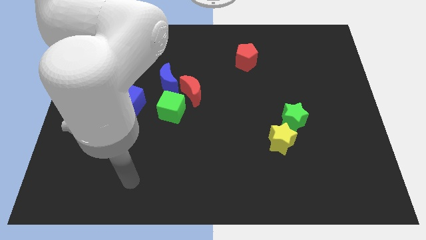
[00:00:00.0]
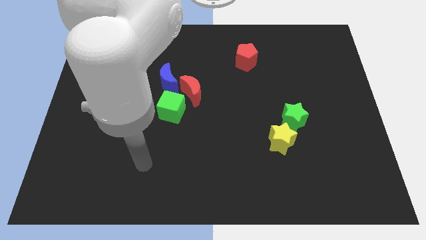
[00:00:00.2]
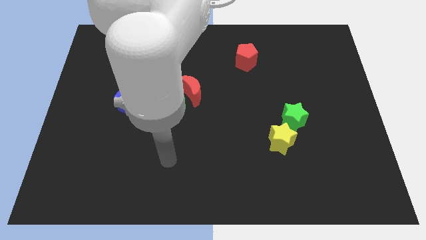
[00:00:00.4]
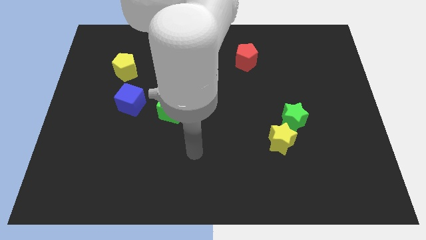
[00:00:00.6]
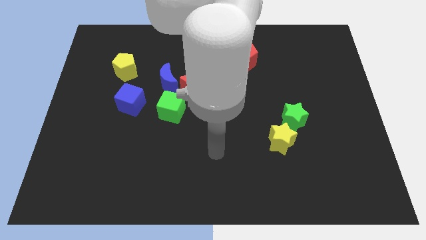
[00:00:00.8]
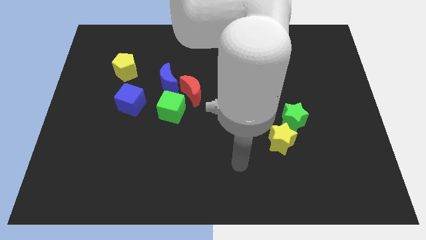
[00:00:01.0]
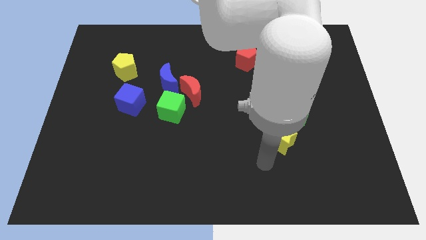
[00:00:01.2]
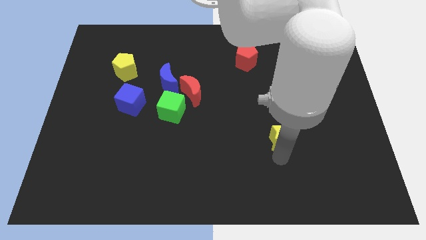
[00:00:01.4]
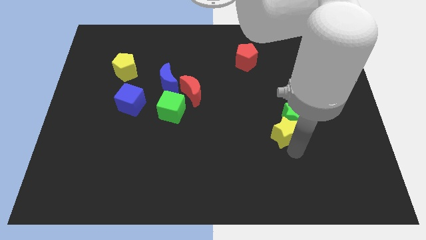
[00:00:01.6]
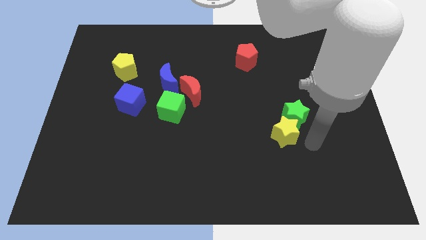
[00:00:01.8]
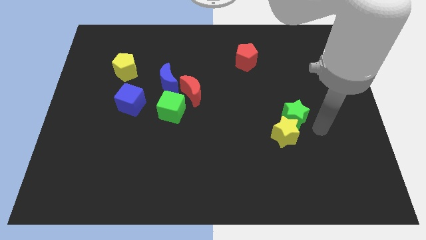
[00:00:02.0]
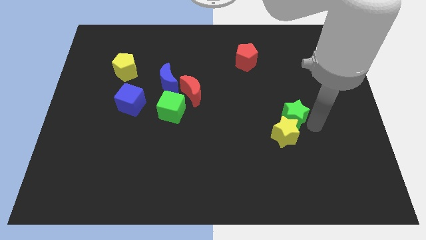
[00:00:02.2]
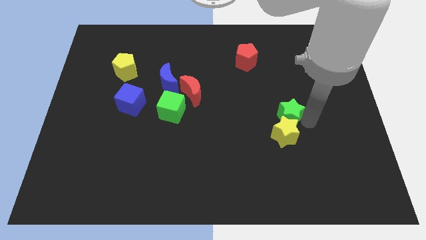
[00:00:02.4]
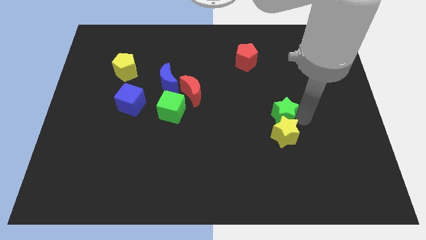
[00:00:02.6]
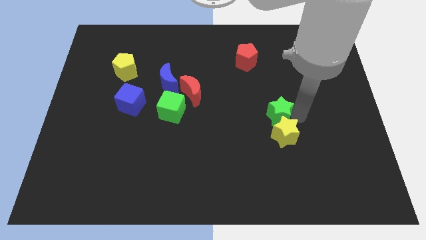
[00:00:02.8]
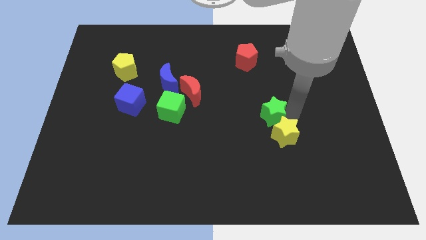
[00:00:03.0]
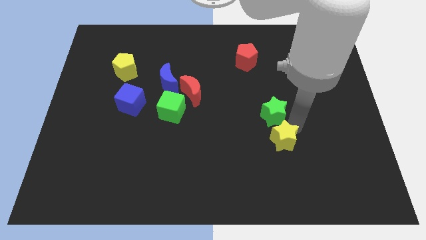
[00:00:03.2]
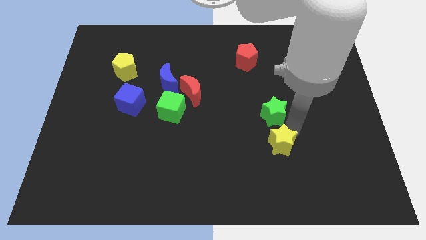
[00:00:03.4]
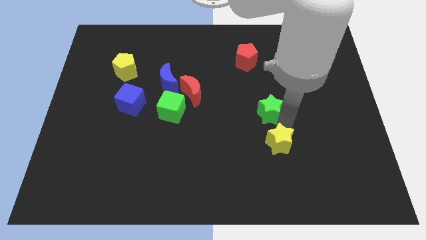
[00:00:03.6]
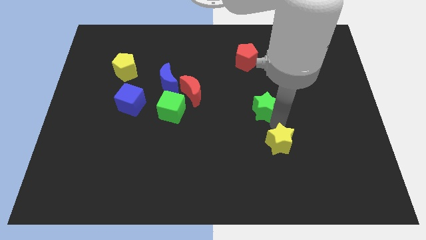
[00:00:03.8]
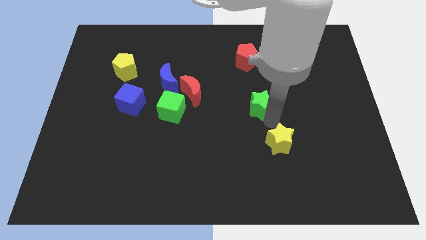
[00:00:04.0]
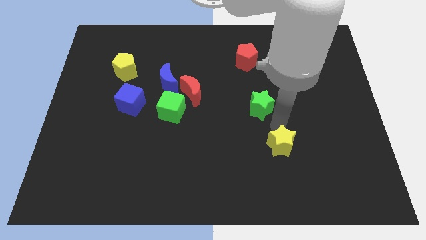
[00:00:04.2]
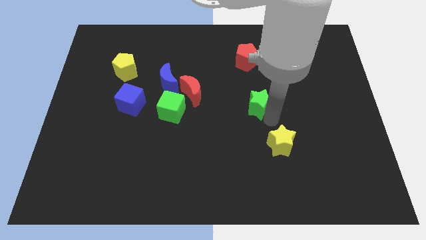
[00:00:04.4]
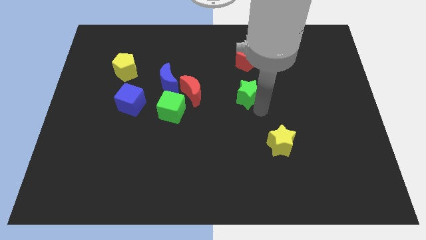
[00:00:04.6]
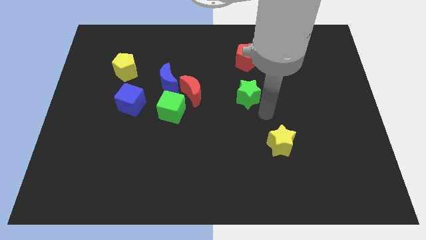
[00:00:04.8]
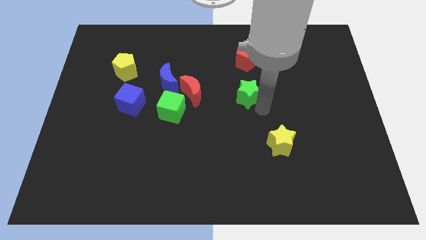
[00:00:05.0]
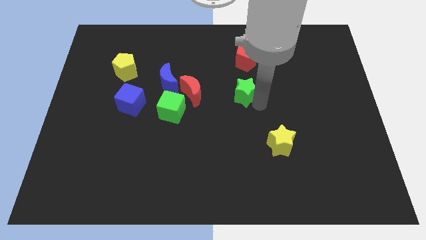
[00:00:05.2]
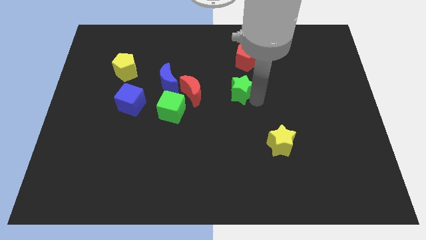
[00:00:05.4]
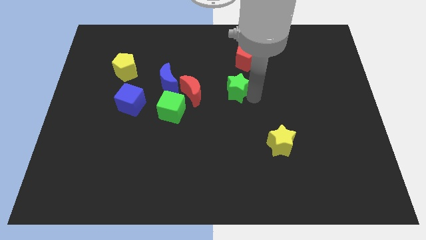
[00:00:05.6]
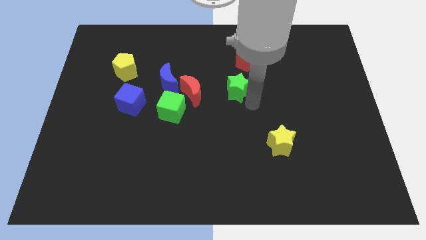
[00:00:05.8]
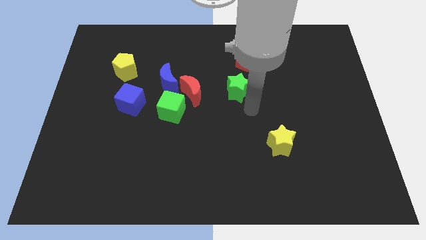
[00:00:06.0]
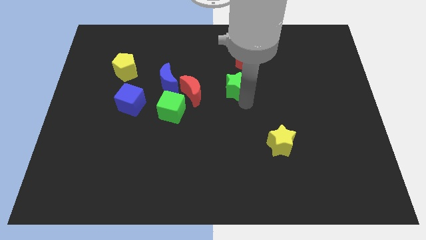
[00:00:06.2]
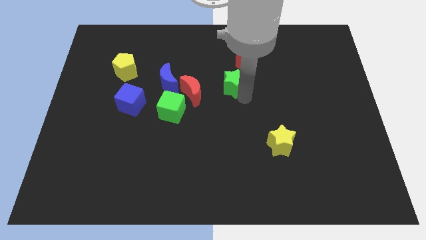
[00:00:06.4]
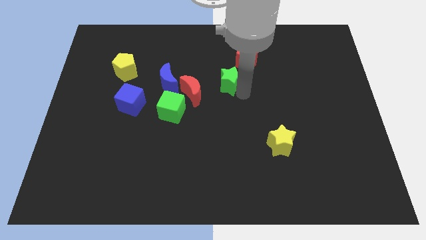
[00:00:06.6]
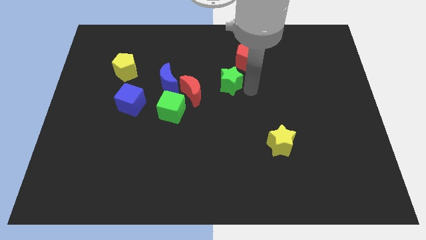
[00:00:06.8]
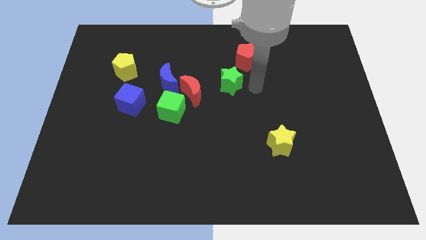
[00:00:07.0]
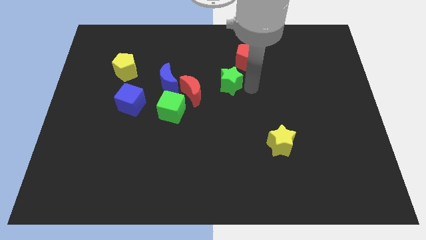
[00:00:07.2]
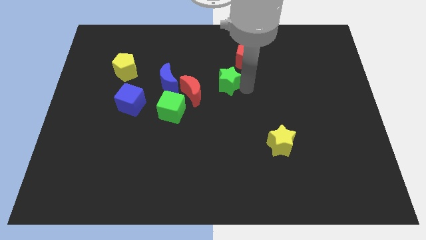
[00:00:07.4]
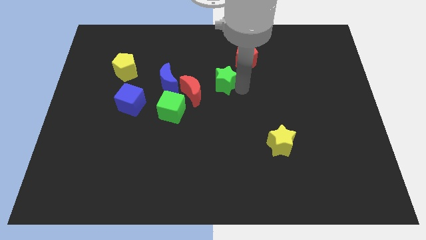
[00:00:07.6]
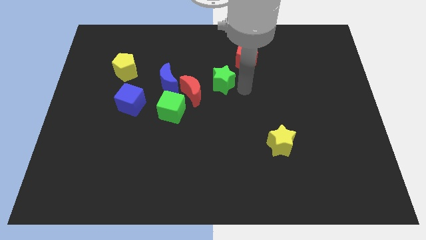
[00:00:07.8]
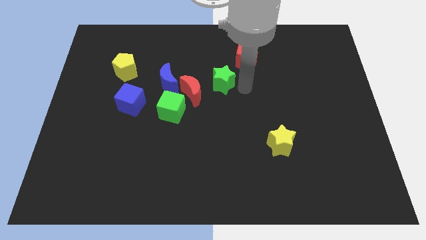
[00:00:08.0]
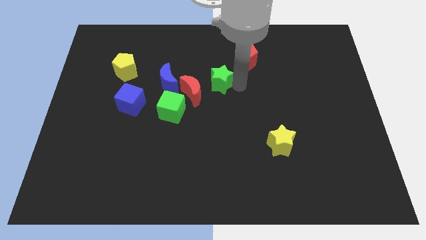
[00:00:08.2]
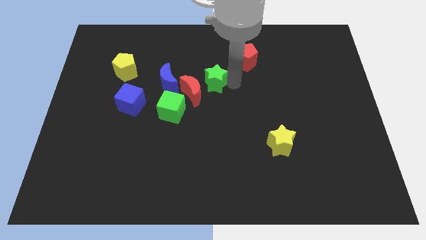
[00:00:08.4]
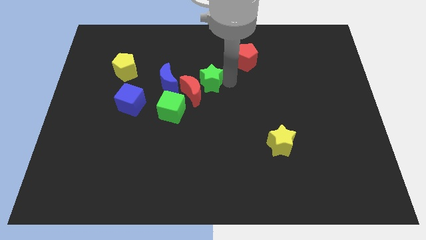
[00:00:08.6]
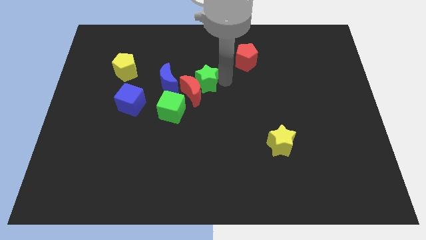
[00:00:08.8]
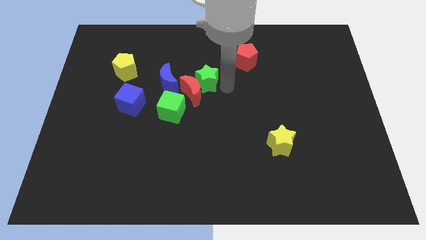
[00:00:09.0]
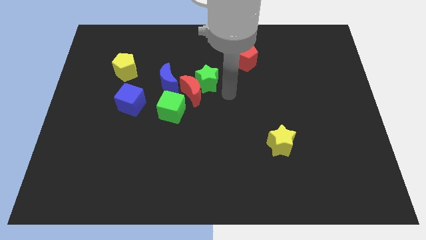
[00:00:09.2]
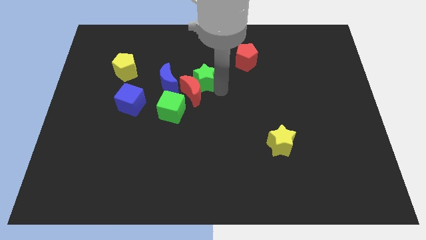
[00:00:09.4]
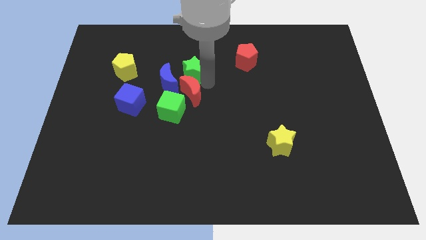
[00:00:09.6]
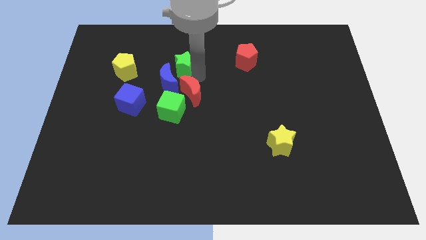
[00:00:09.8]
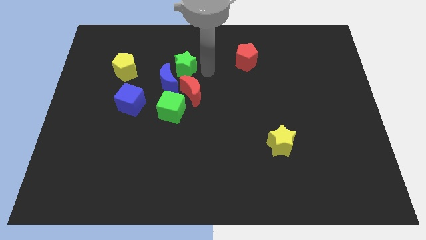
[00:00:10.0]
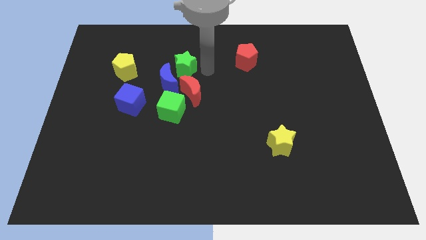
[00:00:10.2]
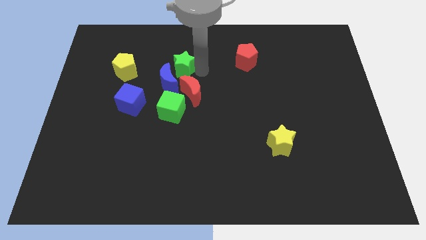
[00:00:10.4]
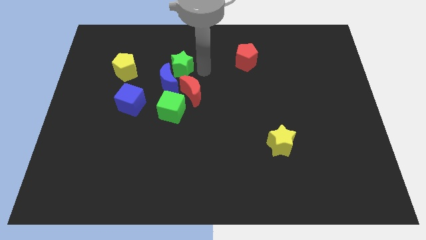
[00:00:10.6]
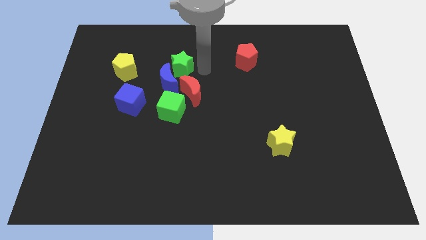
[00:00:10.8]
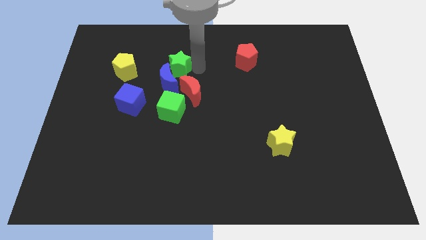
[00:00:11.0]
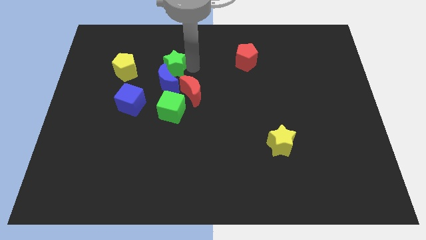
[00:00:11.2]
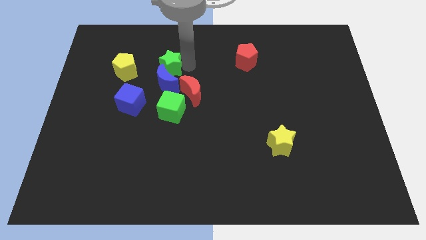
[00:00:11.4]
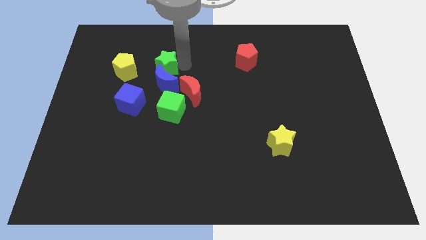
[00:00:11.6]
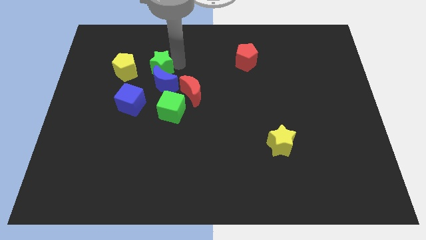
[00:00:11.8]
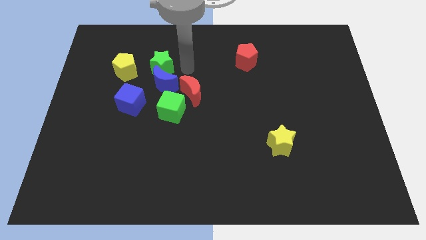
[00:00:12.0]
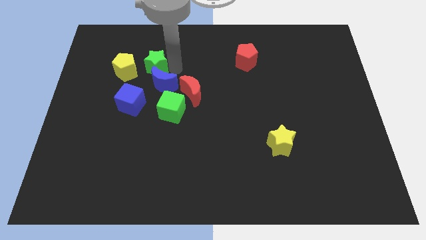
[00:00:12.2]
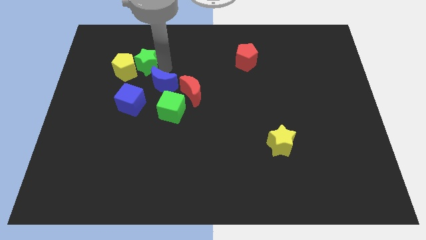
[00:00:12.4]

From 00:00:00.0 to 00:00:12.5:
put the green star to the yellow pentagon

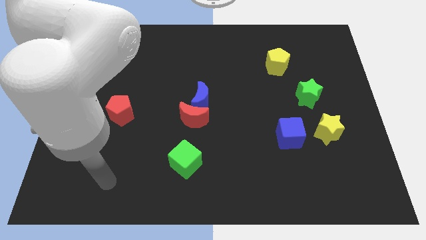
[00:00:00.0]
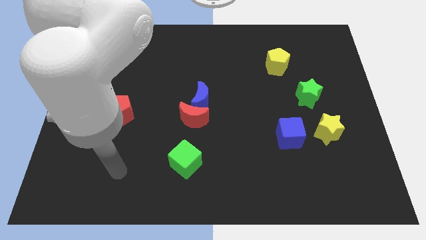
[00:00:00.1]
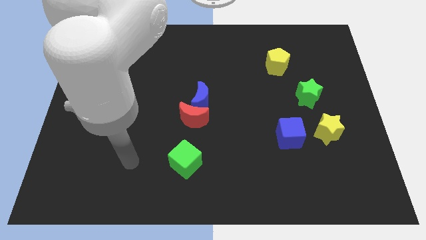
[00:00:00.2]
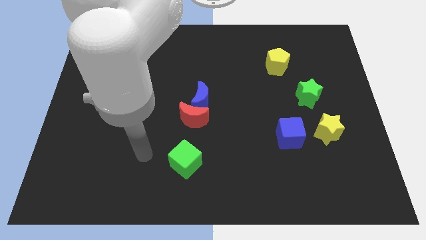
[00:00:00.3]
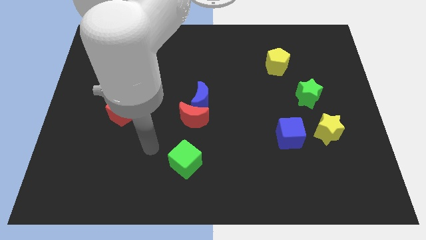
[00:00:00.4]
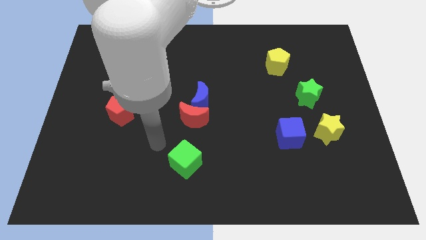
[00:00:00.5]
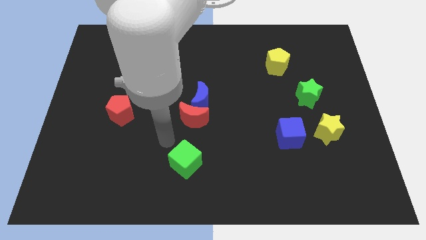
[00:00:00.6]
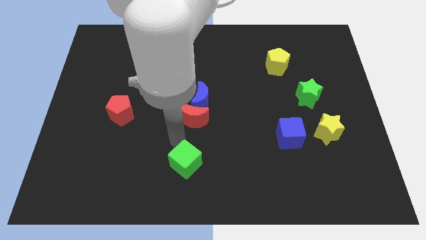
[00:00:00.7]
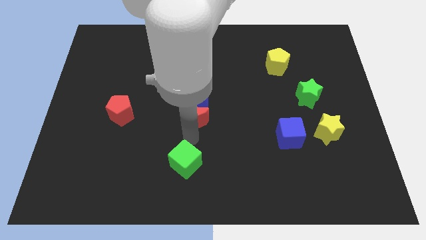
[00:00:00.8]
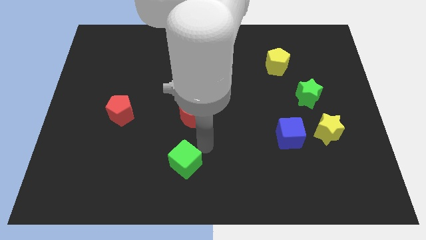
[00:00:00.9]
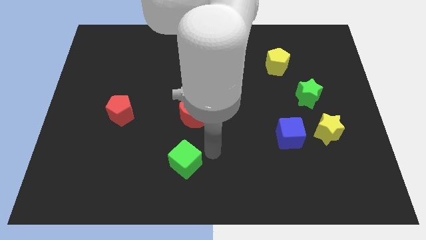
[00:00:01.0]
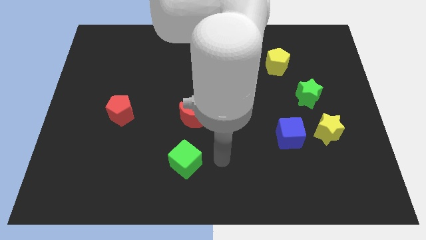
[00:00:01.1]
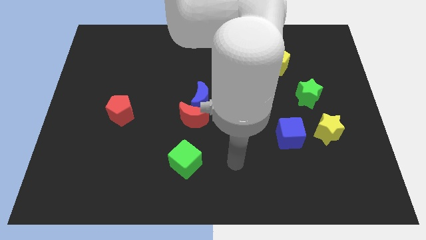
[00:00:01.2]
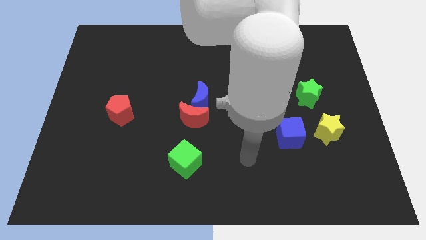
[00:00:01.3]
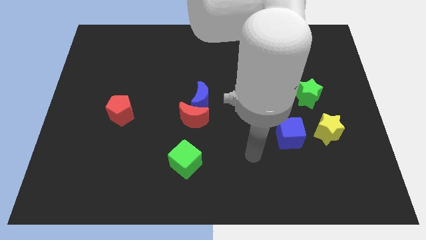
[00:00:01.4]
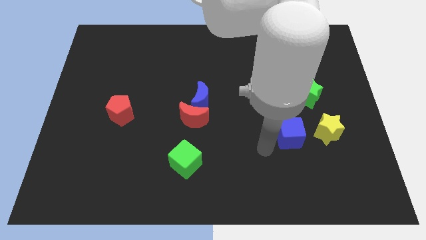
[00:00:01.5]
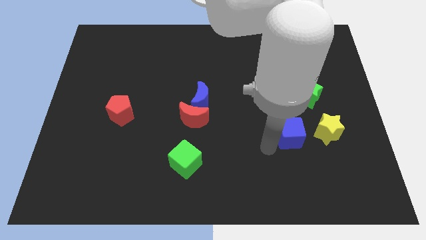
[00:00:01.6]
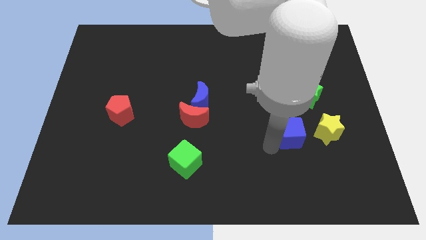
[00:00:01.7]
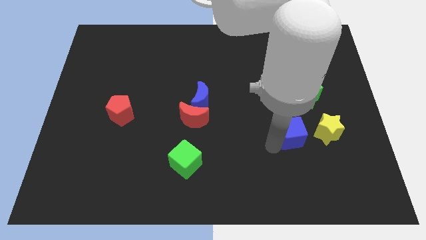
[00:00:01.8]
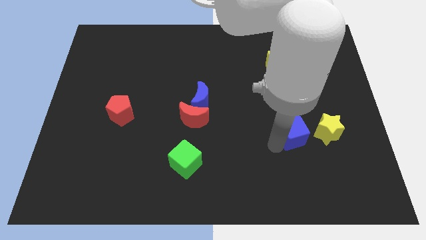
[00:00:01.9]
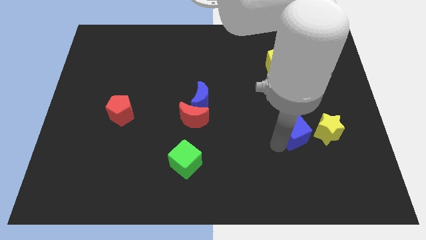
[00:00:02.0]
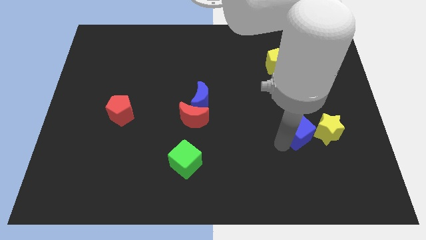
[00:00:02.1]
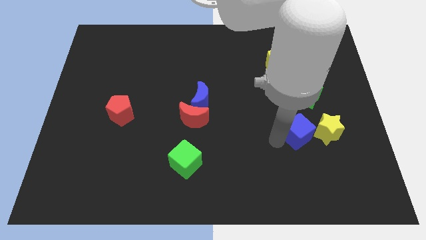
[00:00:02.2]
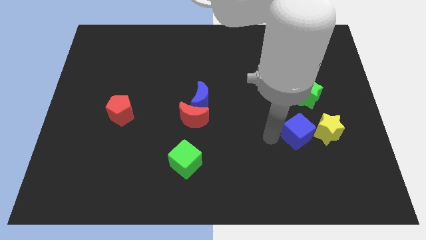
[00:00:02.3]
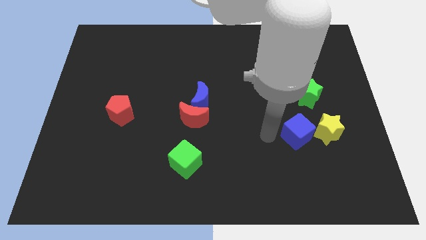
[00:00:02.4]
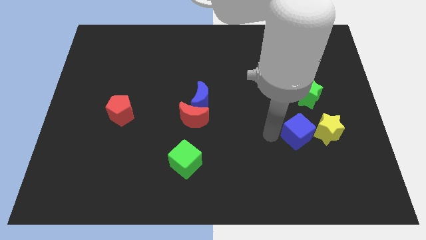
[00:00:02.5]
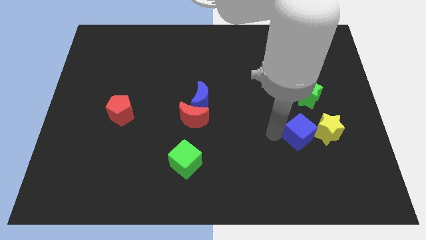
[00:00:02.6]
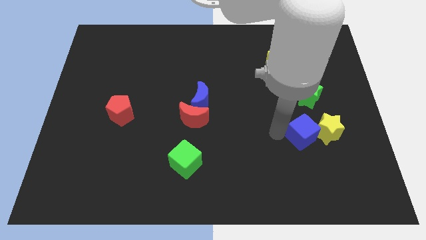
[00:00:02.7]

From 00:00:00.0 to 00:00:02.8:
push the blue cube towards the yellow star
